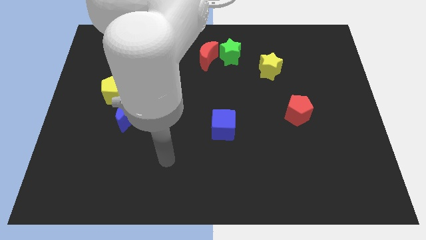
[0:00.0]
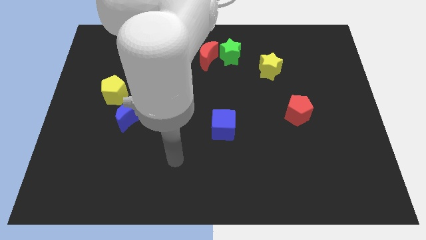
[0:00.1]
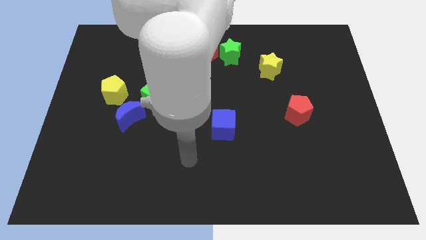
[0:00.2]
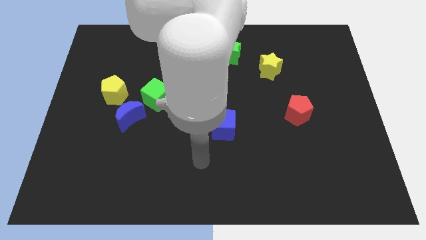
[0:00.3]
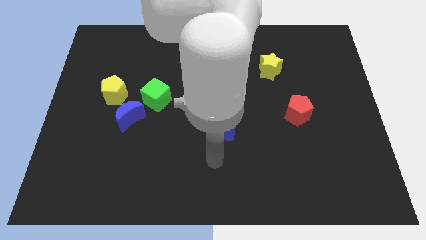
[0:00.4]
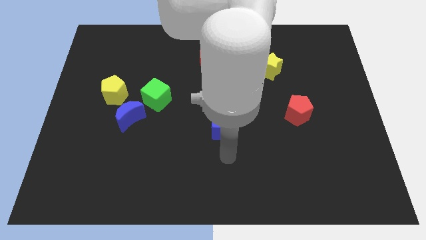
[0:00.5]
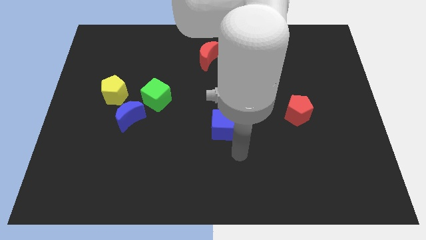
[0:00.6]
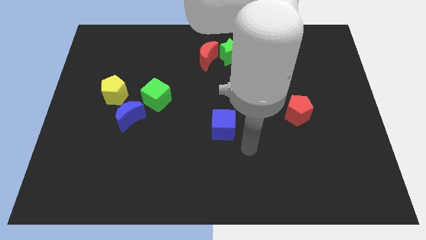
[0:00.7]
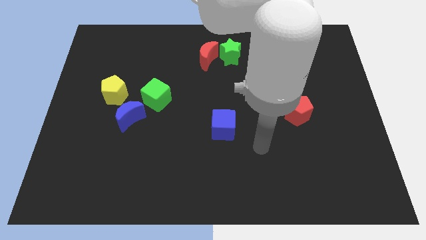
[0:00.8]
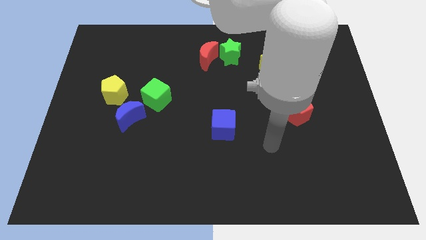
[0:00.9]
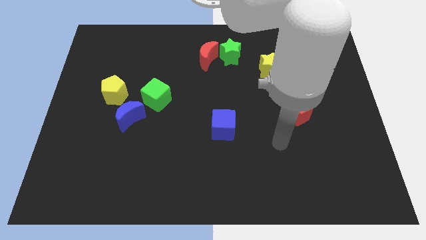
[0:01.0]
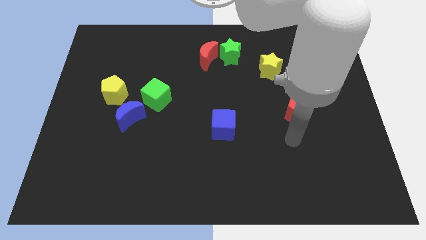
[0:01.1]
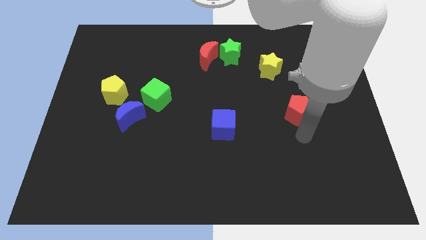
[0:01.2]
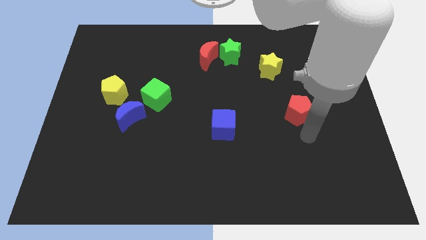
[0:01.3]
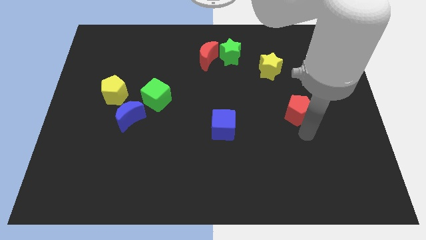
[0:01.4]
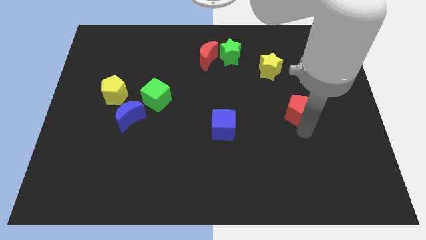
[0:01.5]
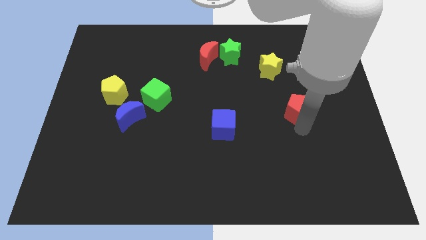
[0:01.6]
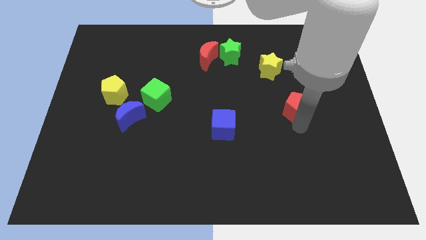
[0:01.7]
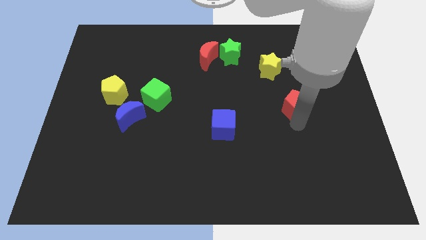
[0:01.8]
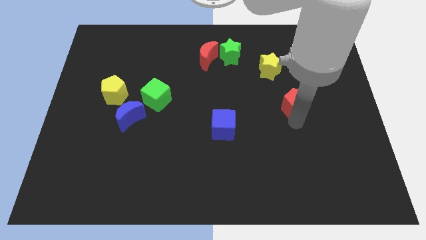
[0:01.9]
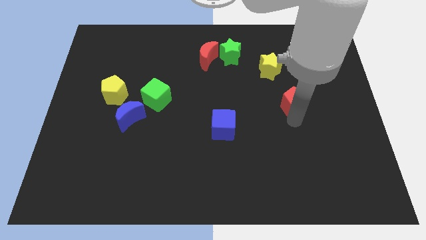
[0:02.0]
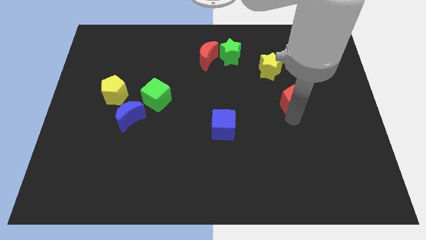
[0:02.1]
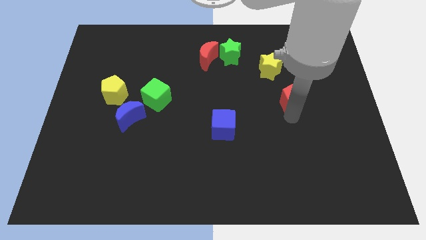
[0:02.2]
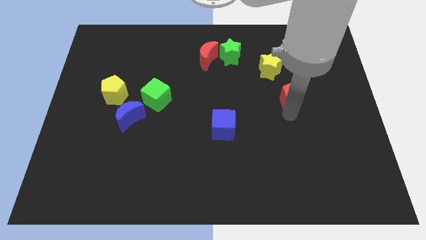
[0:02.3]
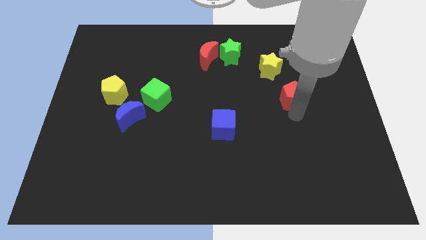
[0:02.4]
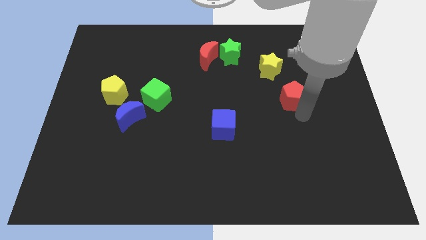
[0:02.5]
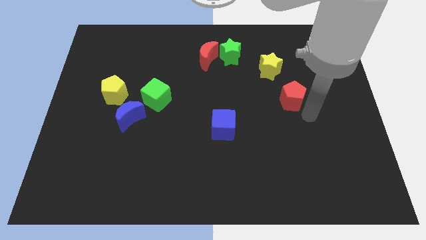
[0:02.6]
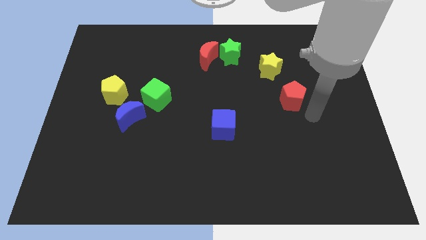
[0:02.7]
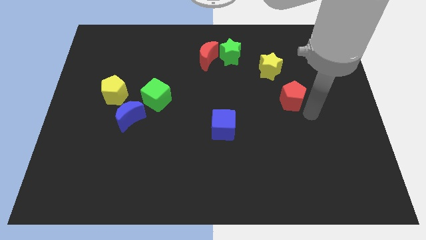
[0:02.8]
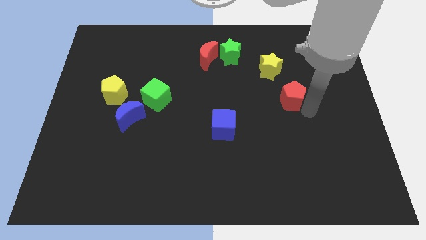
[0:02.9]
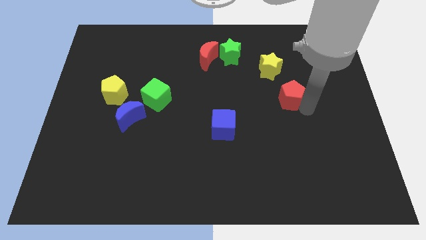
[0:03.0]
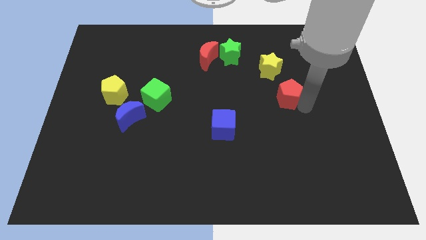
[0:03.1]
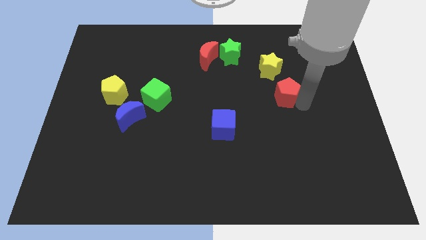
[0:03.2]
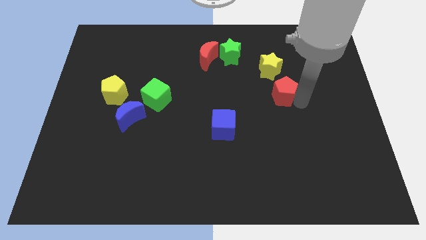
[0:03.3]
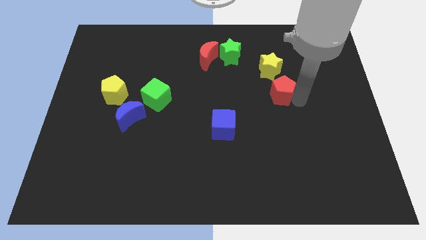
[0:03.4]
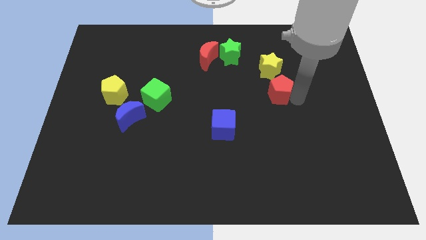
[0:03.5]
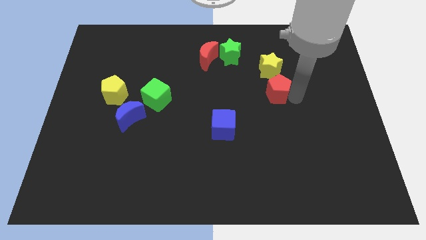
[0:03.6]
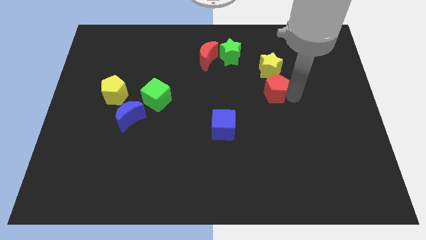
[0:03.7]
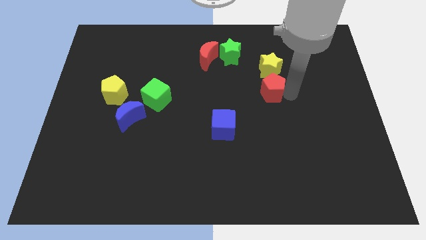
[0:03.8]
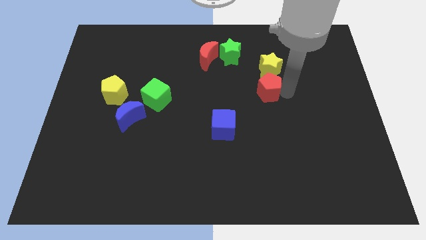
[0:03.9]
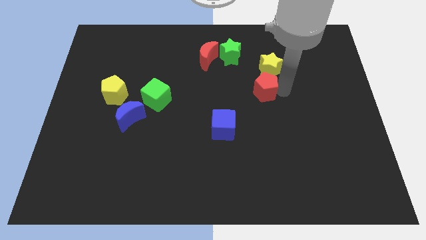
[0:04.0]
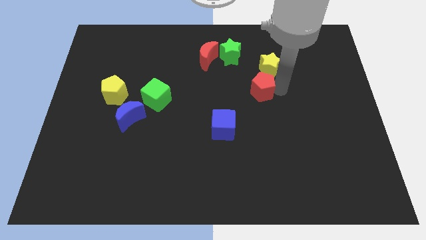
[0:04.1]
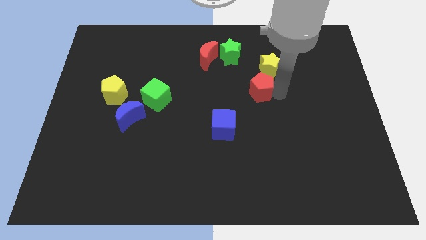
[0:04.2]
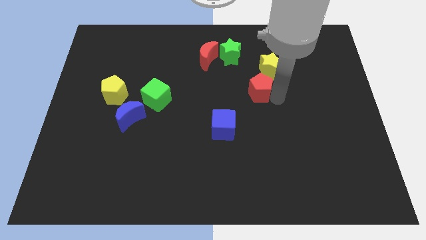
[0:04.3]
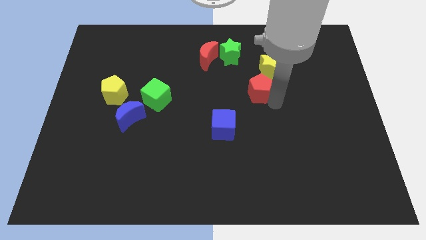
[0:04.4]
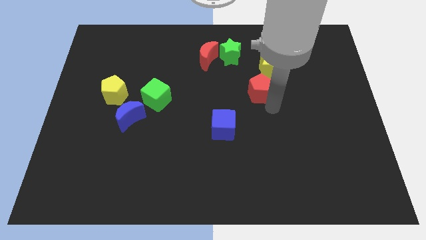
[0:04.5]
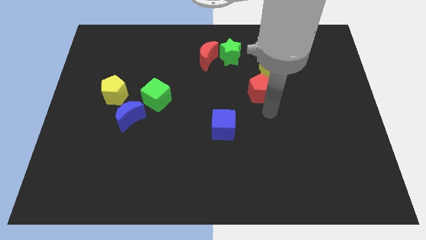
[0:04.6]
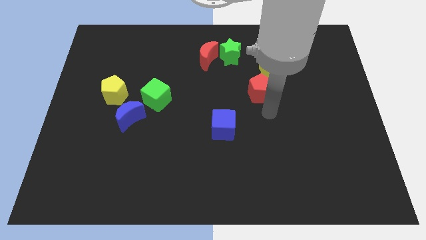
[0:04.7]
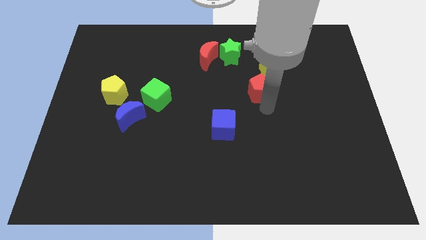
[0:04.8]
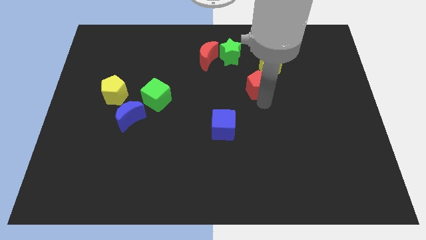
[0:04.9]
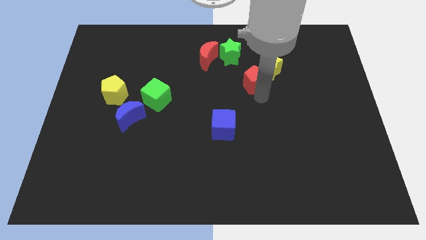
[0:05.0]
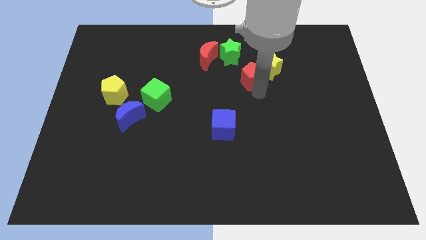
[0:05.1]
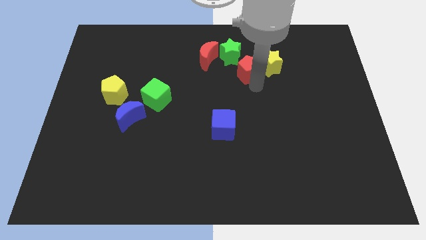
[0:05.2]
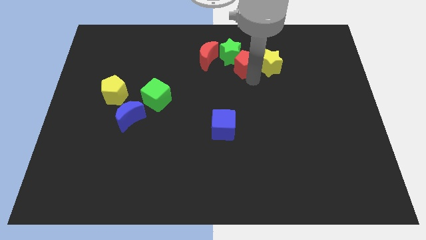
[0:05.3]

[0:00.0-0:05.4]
put the red pentagon next to the green star

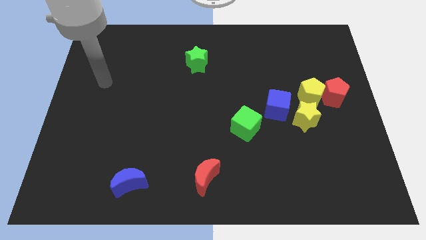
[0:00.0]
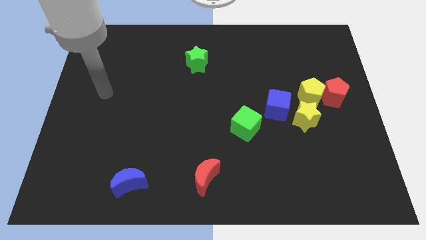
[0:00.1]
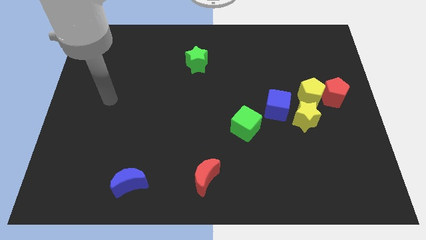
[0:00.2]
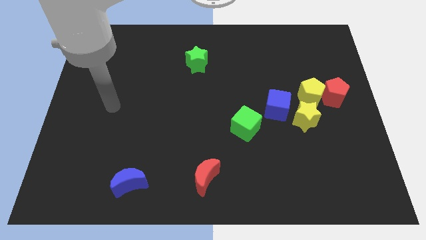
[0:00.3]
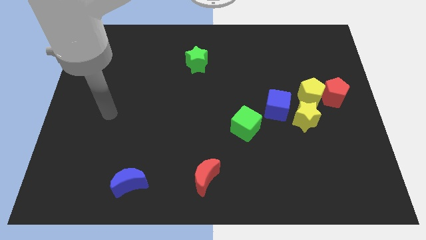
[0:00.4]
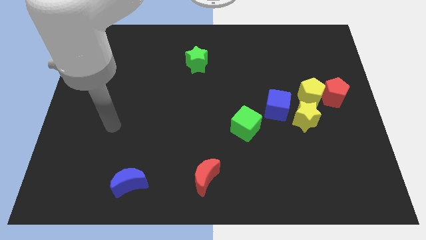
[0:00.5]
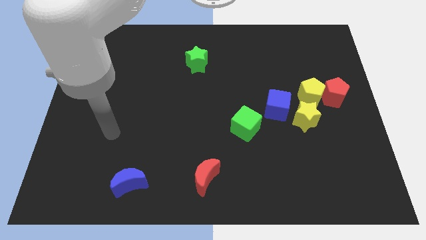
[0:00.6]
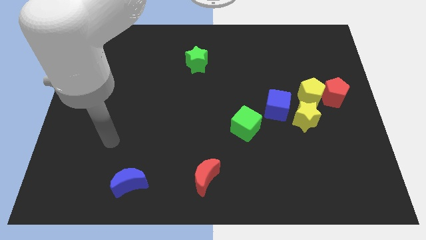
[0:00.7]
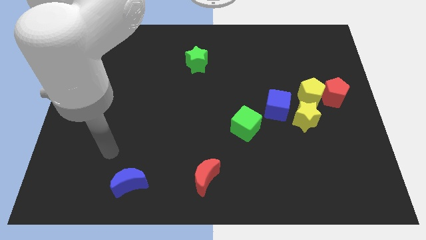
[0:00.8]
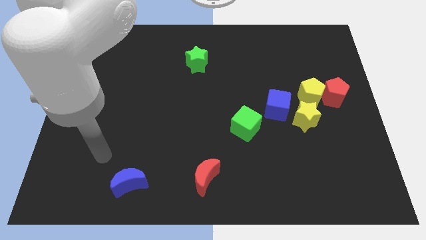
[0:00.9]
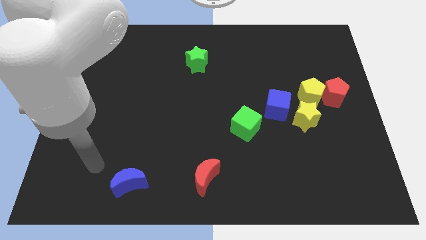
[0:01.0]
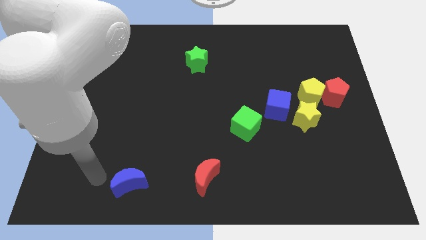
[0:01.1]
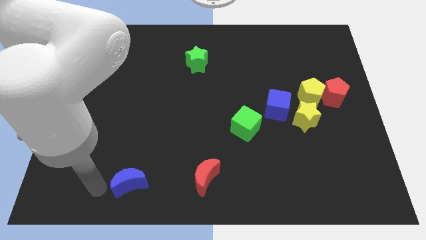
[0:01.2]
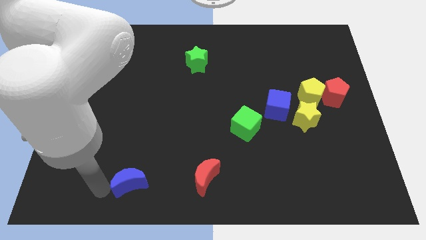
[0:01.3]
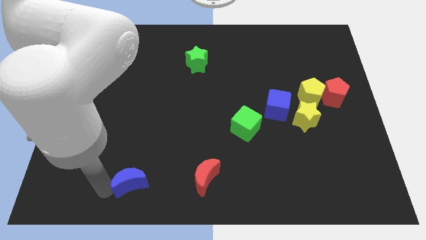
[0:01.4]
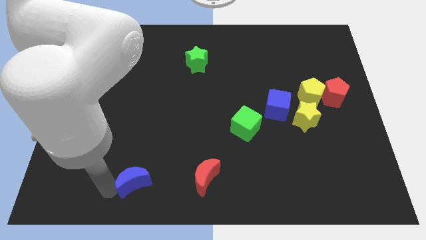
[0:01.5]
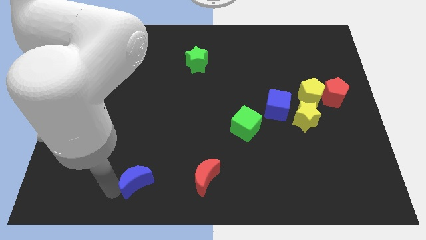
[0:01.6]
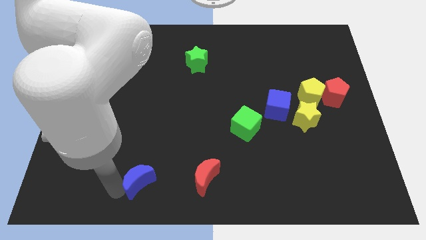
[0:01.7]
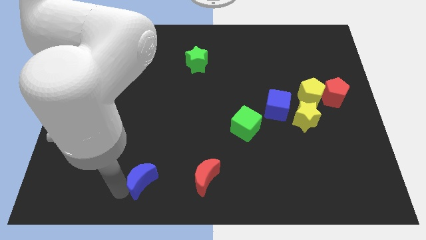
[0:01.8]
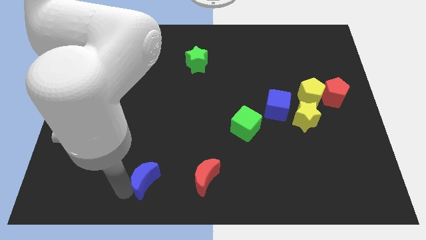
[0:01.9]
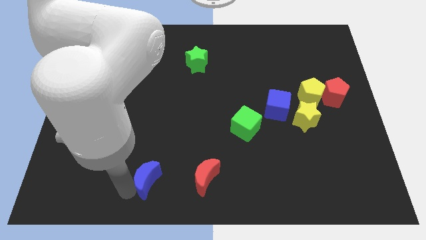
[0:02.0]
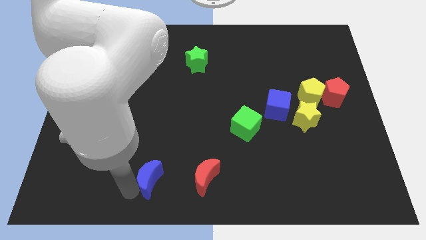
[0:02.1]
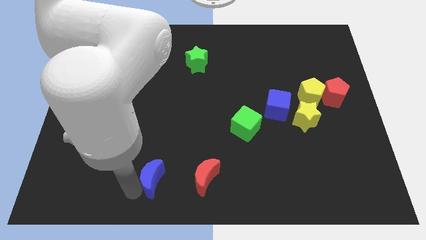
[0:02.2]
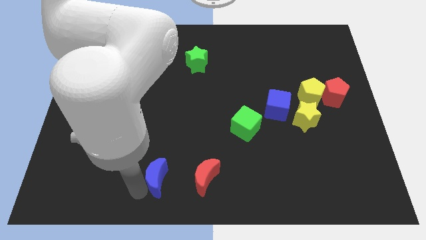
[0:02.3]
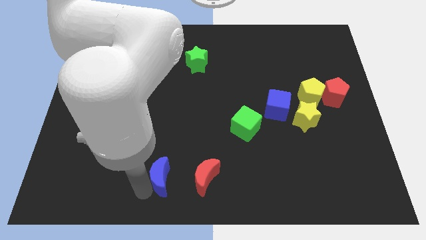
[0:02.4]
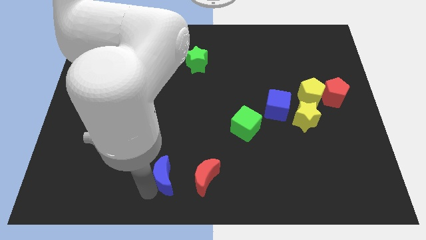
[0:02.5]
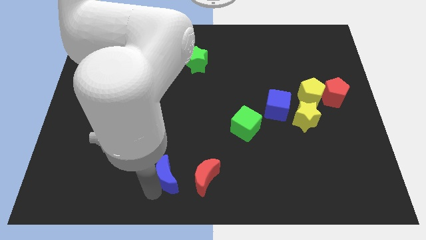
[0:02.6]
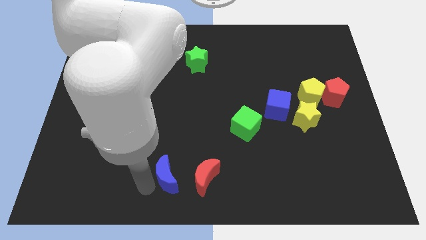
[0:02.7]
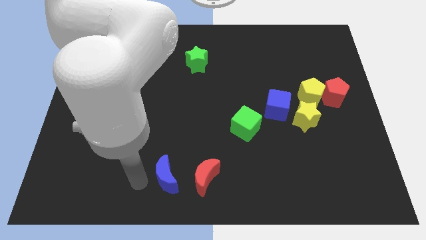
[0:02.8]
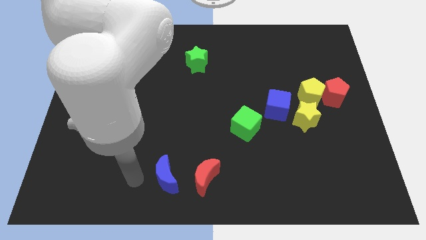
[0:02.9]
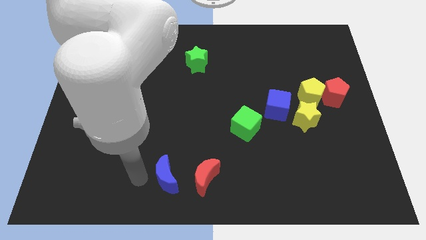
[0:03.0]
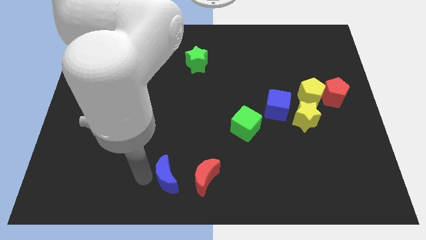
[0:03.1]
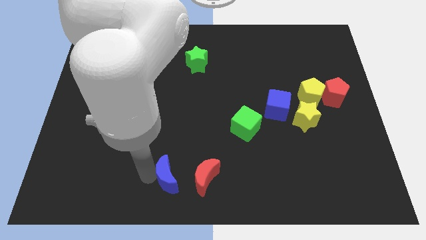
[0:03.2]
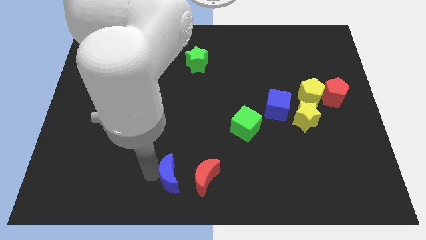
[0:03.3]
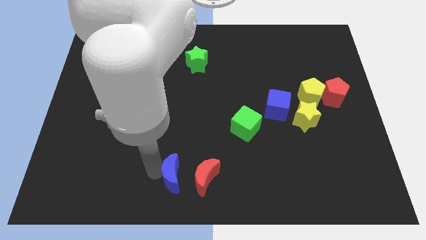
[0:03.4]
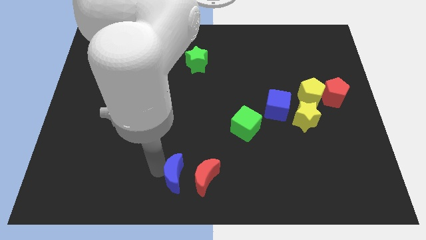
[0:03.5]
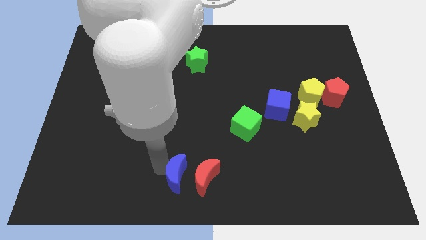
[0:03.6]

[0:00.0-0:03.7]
put the blue moon close to the red moon
